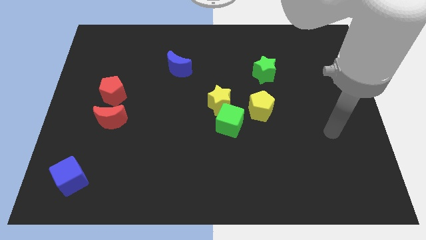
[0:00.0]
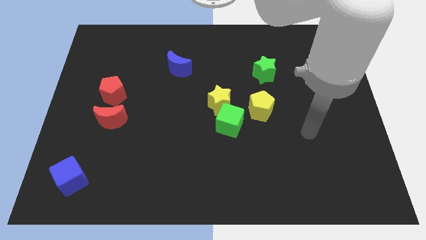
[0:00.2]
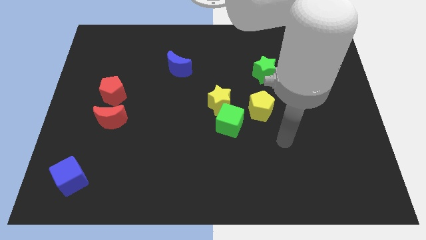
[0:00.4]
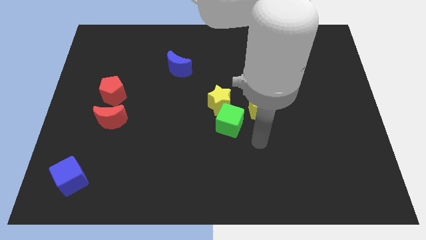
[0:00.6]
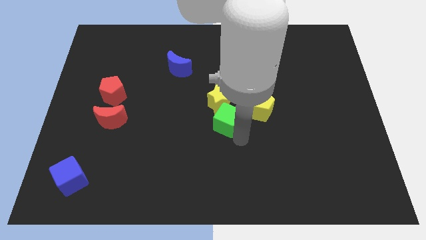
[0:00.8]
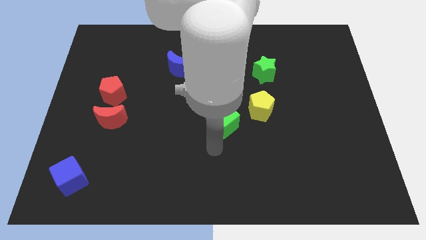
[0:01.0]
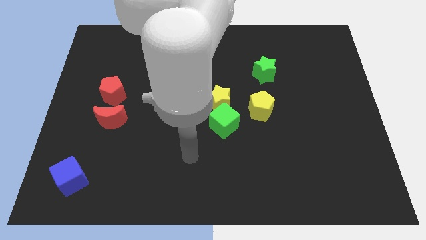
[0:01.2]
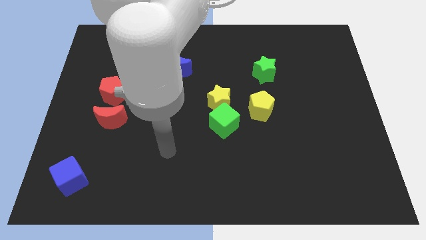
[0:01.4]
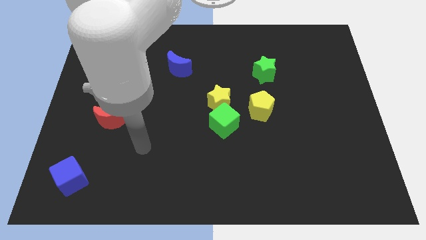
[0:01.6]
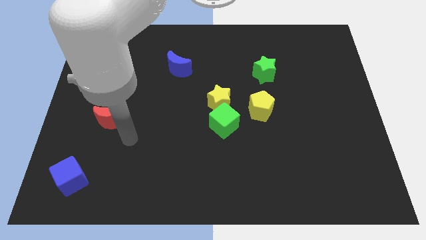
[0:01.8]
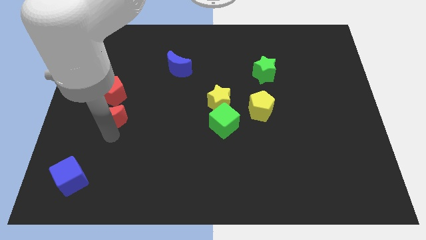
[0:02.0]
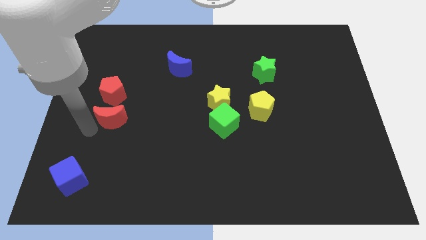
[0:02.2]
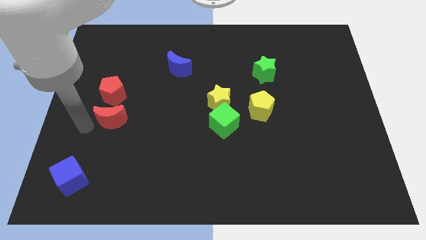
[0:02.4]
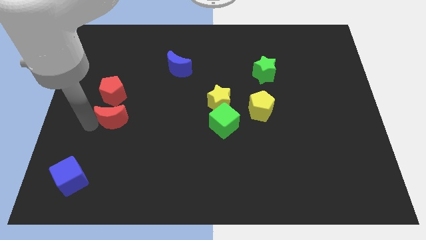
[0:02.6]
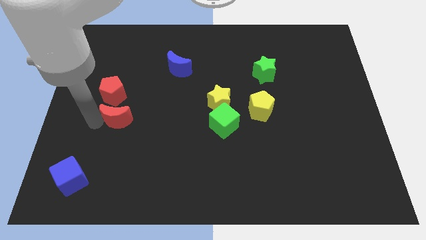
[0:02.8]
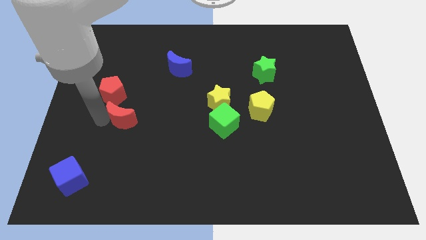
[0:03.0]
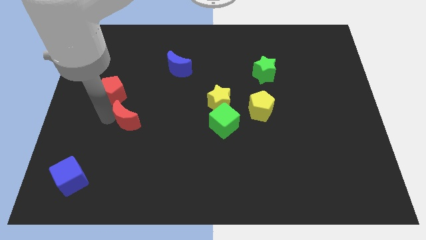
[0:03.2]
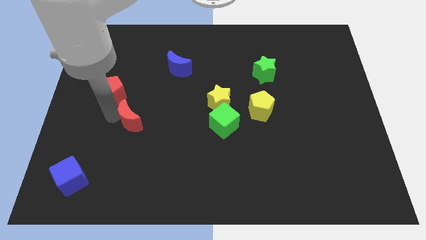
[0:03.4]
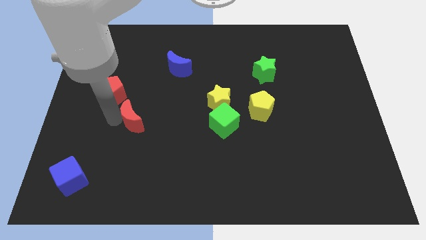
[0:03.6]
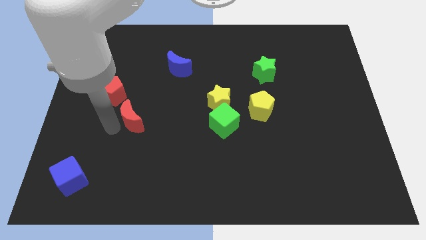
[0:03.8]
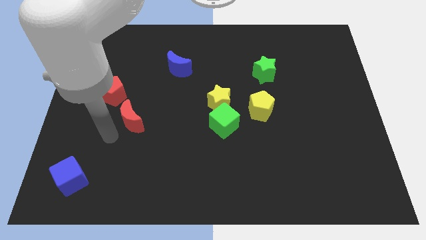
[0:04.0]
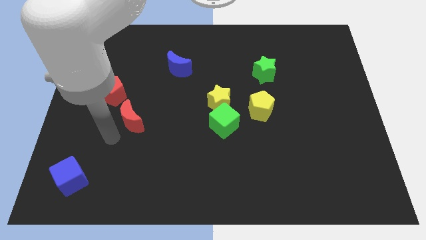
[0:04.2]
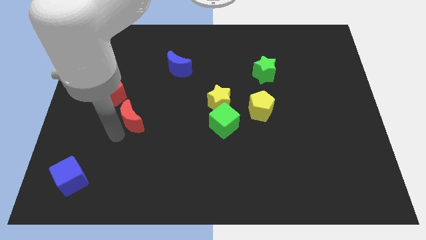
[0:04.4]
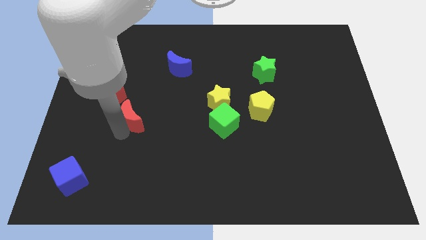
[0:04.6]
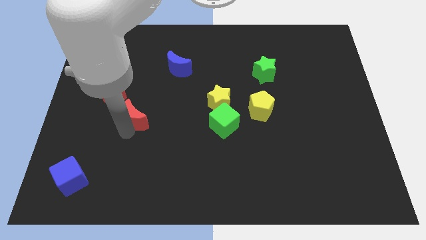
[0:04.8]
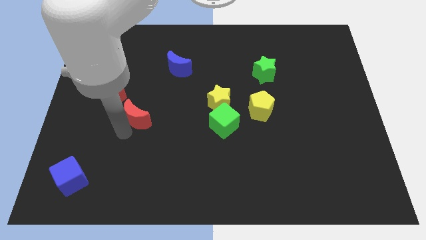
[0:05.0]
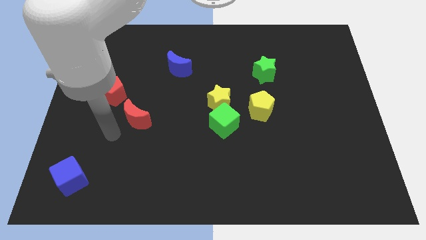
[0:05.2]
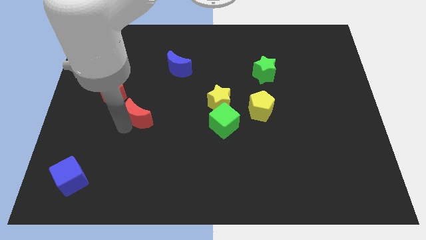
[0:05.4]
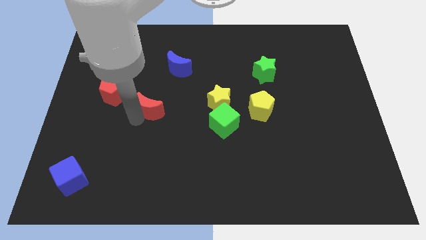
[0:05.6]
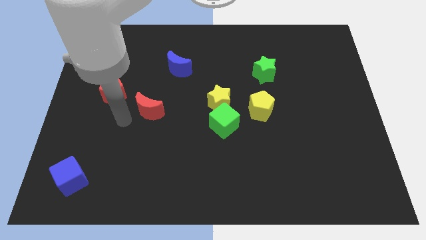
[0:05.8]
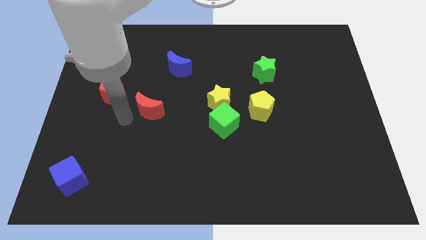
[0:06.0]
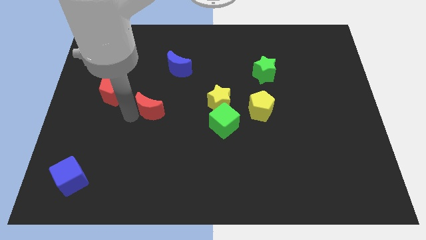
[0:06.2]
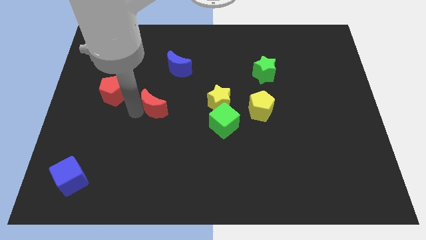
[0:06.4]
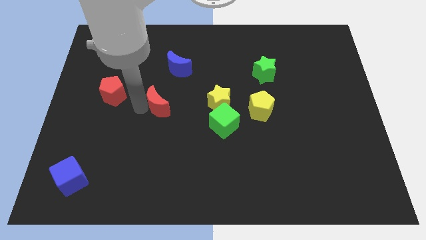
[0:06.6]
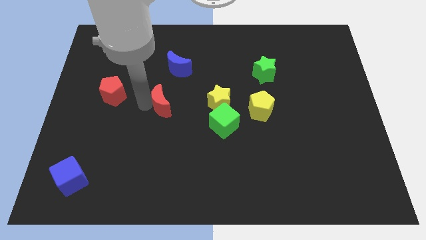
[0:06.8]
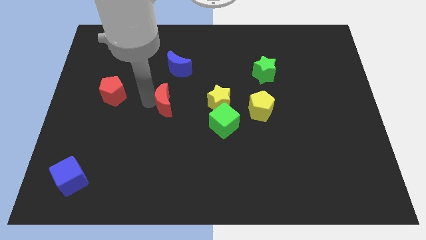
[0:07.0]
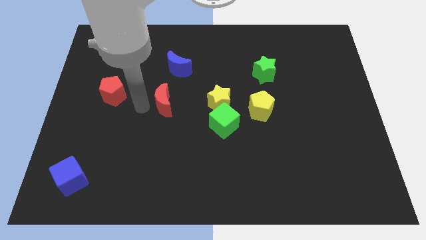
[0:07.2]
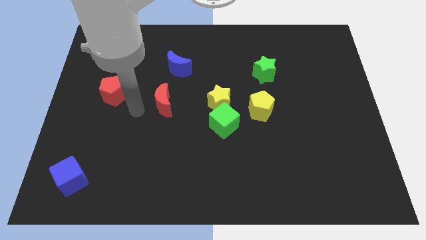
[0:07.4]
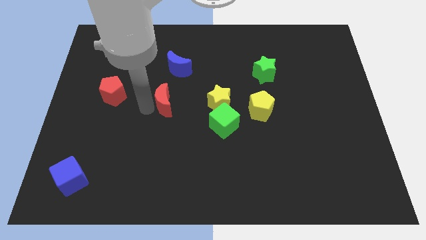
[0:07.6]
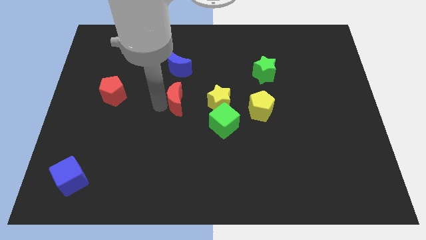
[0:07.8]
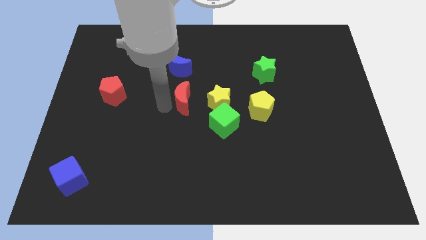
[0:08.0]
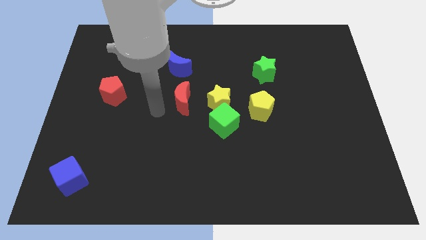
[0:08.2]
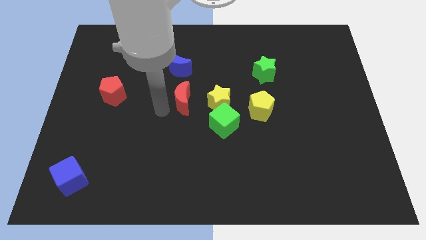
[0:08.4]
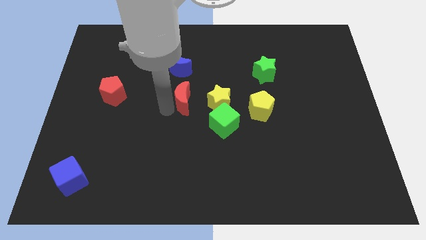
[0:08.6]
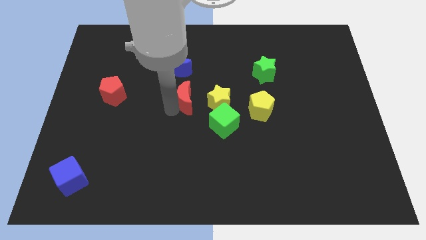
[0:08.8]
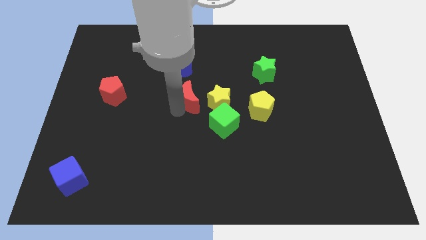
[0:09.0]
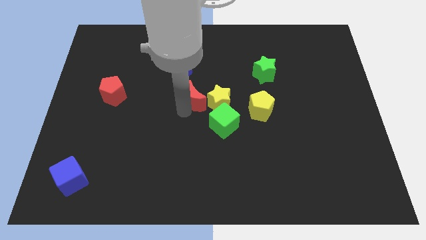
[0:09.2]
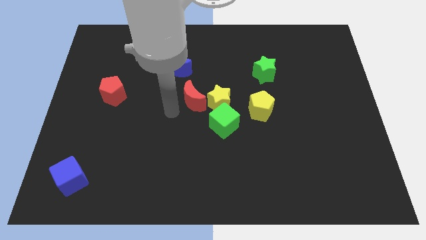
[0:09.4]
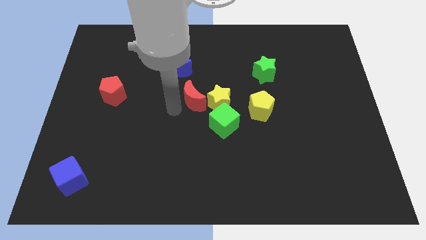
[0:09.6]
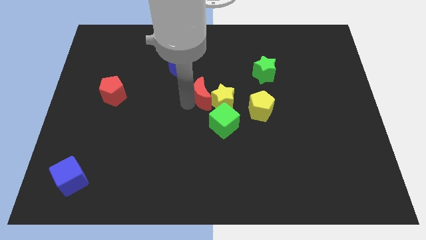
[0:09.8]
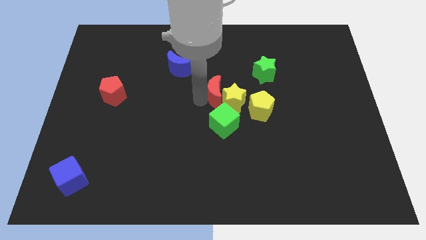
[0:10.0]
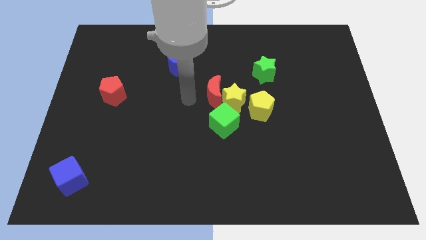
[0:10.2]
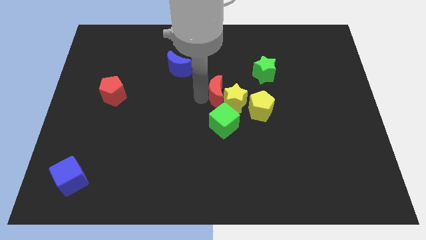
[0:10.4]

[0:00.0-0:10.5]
slide the red moon to the top left side of the yellow pentagon

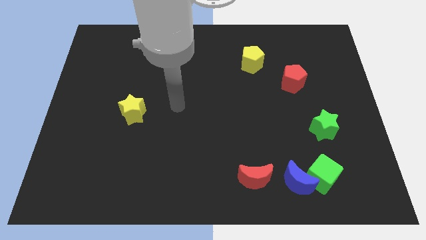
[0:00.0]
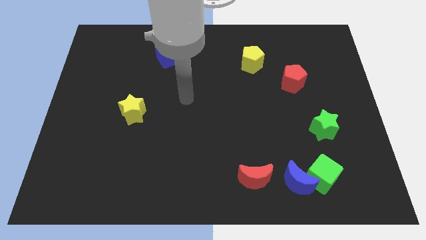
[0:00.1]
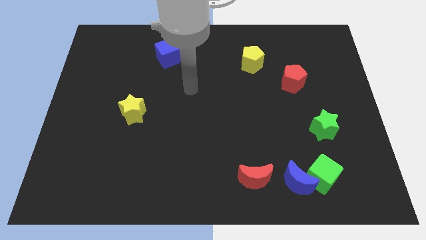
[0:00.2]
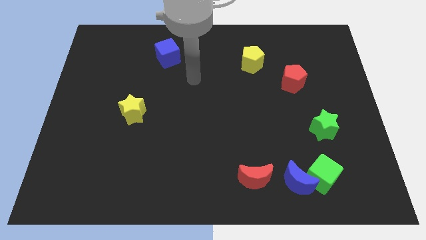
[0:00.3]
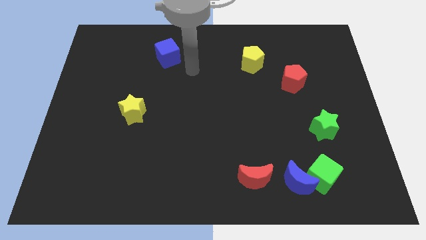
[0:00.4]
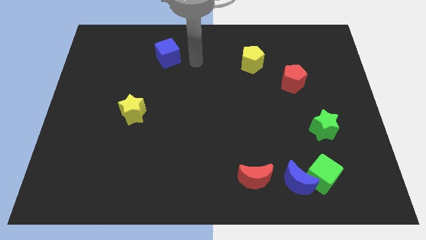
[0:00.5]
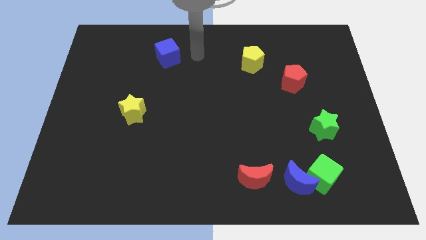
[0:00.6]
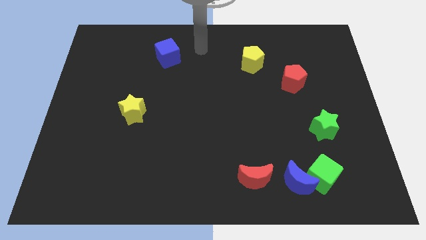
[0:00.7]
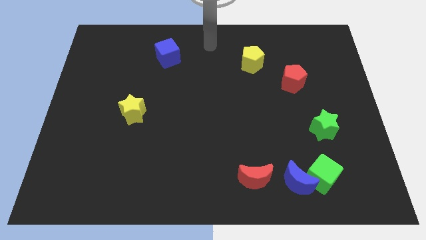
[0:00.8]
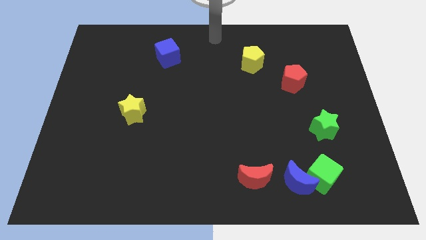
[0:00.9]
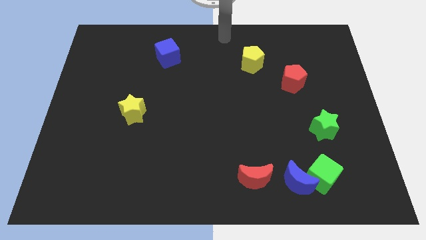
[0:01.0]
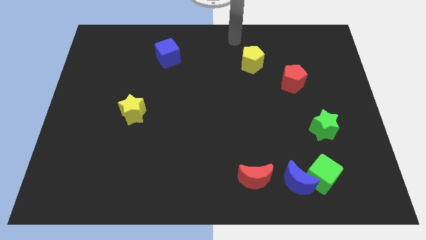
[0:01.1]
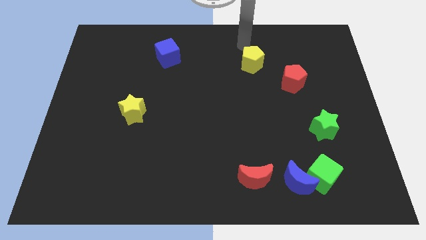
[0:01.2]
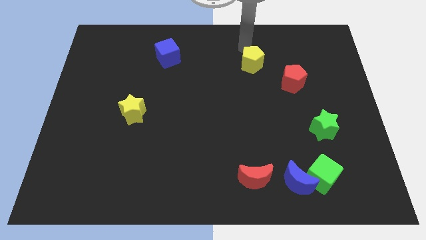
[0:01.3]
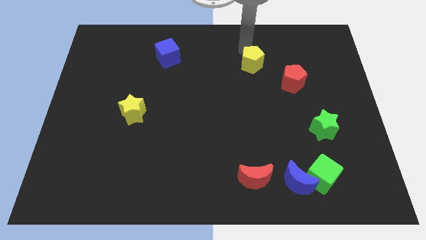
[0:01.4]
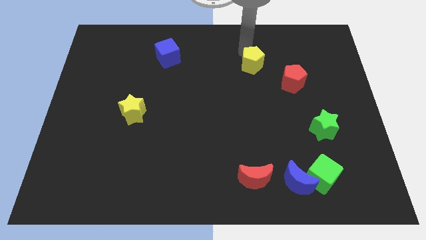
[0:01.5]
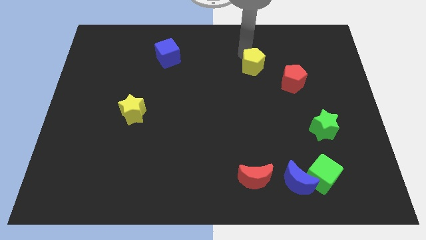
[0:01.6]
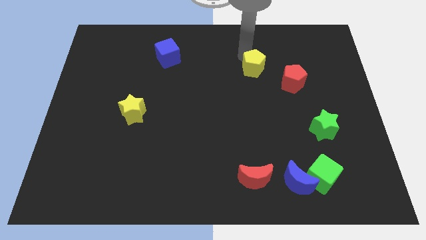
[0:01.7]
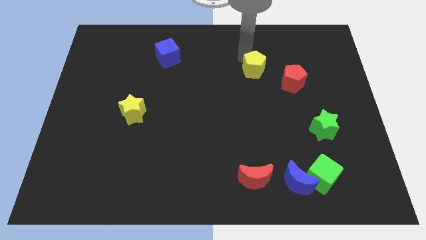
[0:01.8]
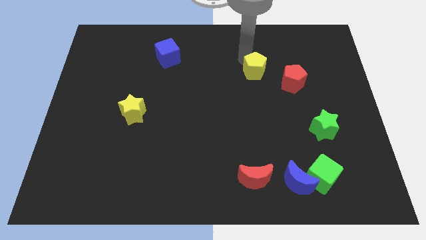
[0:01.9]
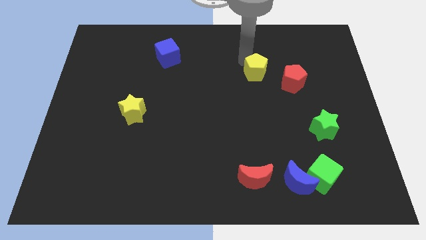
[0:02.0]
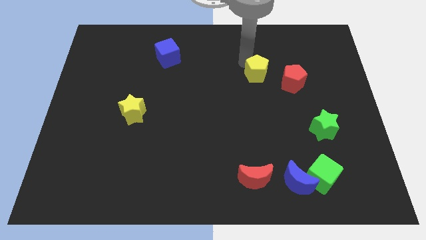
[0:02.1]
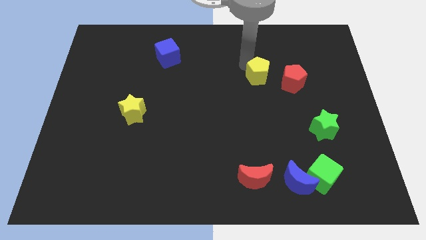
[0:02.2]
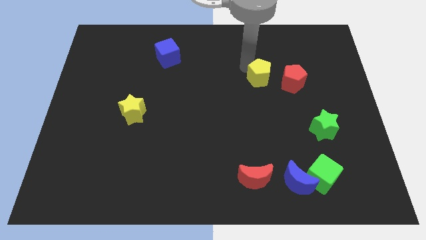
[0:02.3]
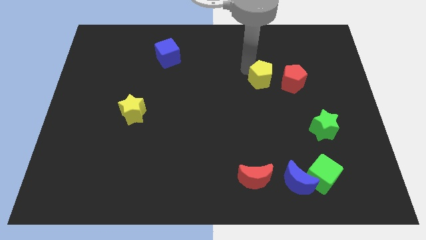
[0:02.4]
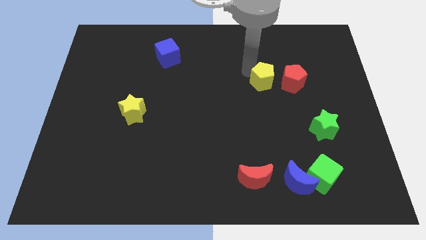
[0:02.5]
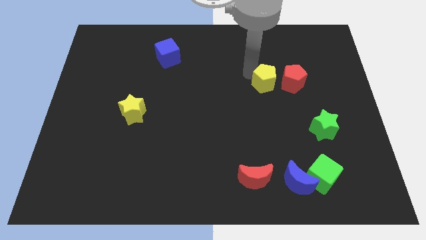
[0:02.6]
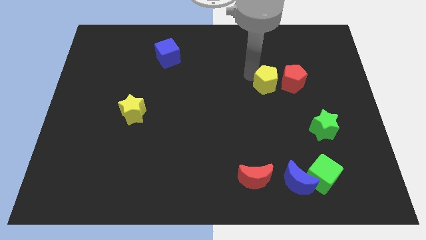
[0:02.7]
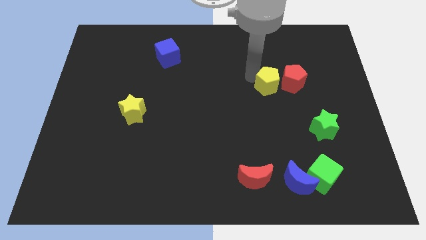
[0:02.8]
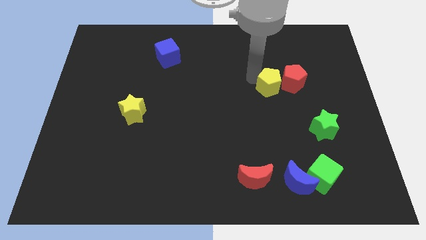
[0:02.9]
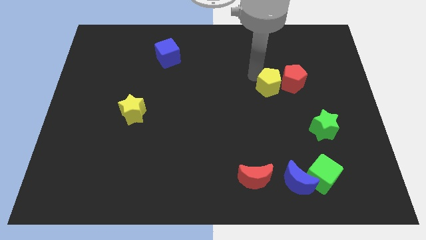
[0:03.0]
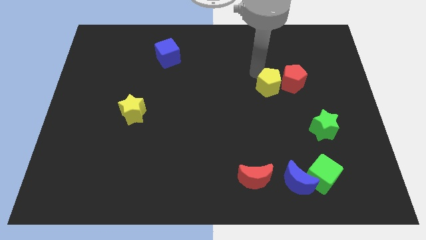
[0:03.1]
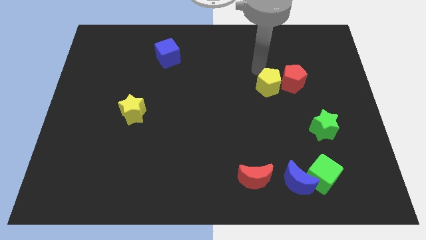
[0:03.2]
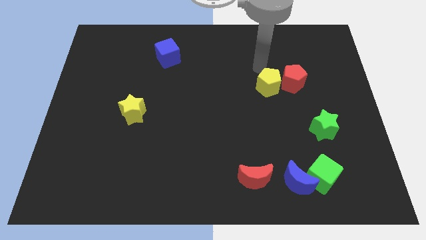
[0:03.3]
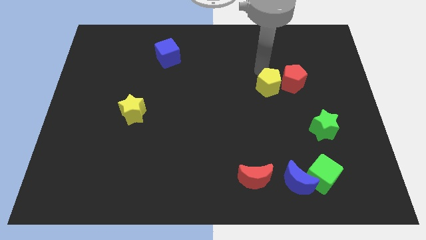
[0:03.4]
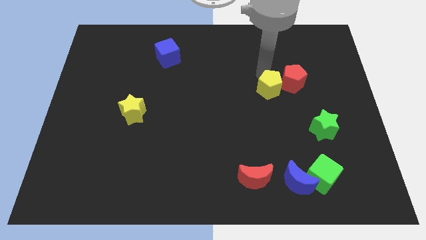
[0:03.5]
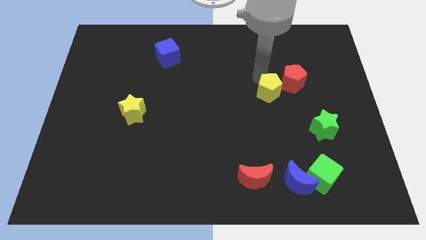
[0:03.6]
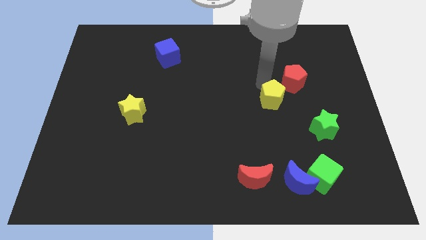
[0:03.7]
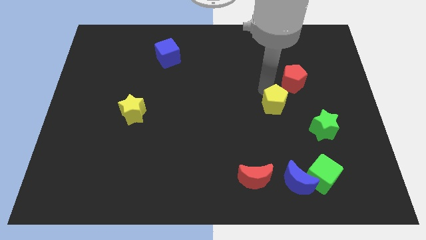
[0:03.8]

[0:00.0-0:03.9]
push the yellow pentagon below the red pentagon
